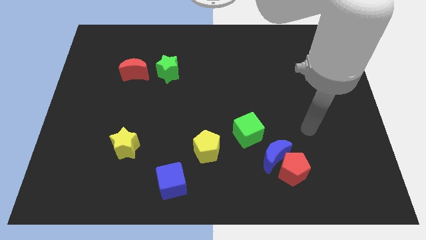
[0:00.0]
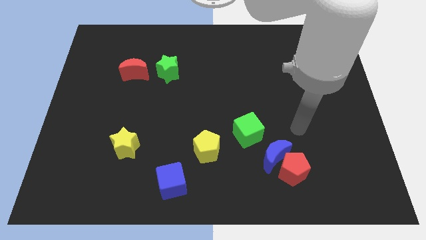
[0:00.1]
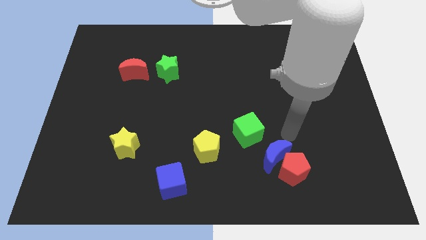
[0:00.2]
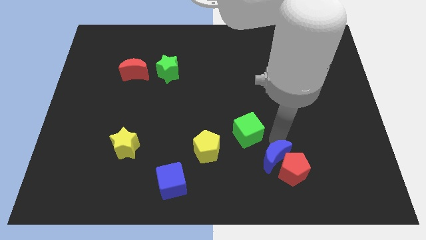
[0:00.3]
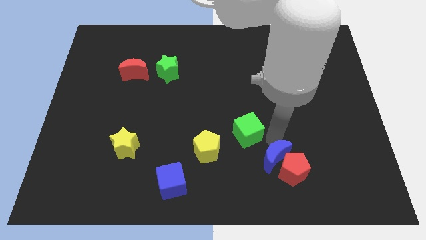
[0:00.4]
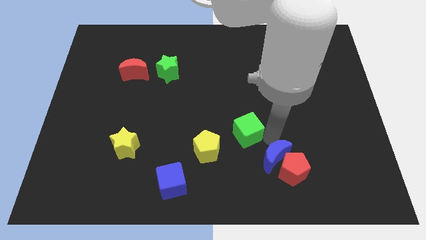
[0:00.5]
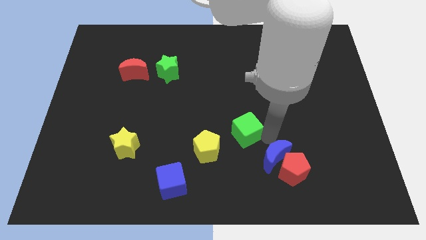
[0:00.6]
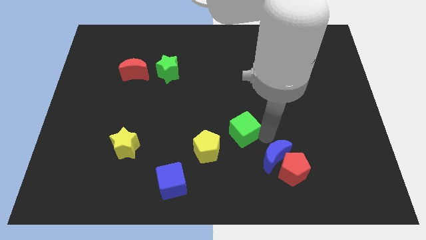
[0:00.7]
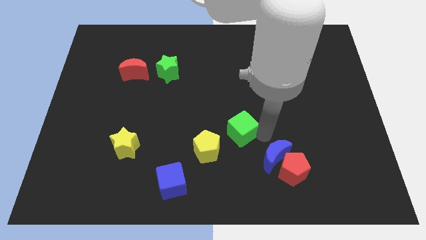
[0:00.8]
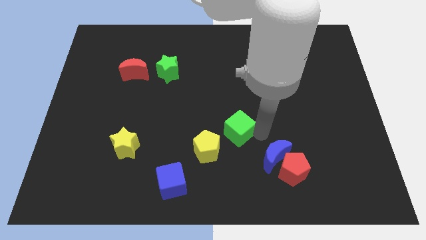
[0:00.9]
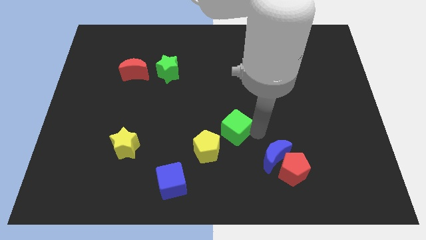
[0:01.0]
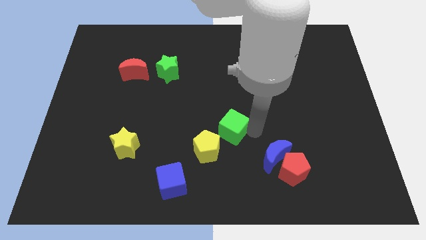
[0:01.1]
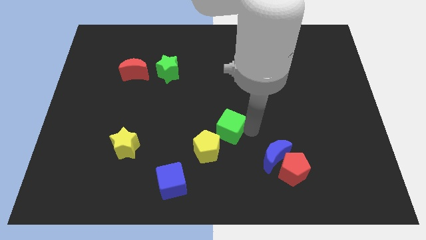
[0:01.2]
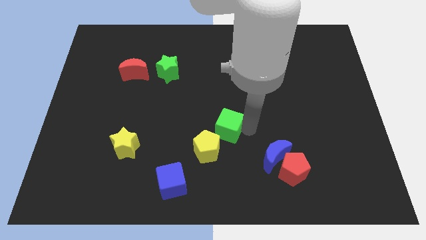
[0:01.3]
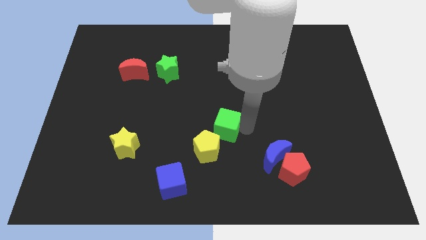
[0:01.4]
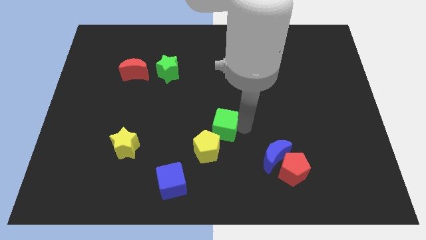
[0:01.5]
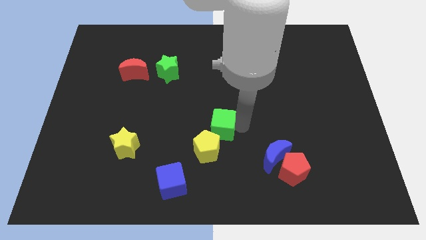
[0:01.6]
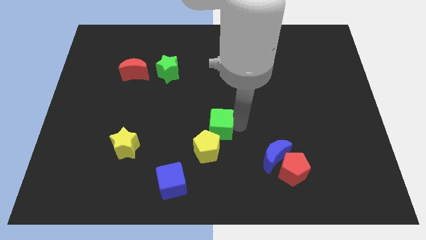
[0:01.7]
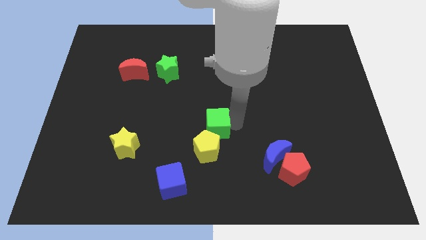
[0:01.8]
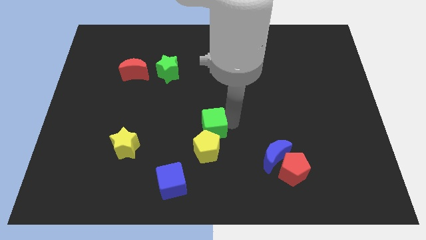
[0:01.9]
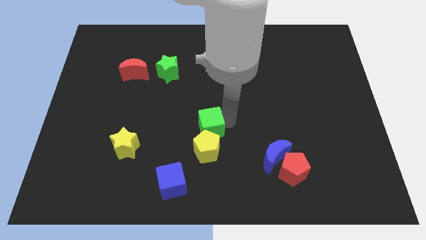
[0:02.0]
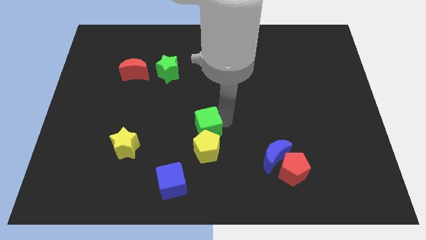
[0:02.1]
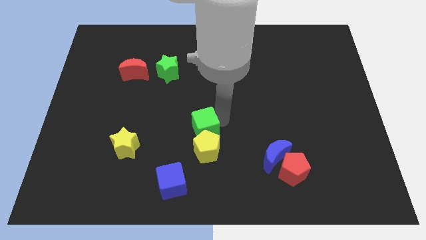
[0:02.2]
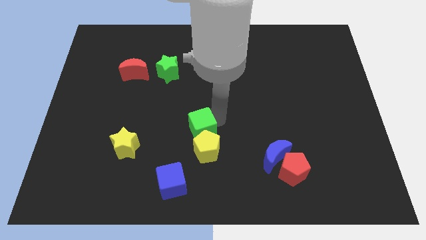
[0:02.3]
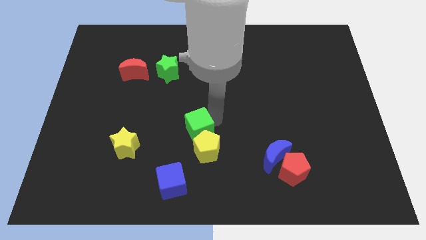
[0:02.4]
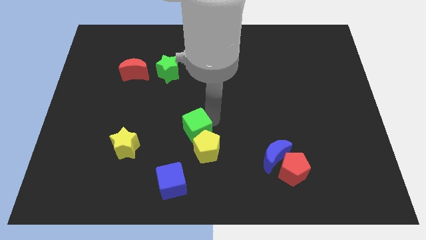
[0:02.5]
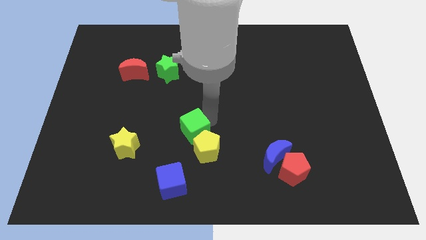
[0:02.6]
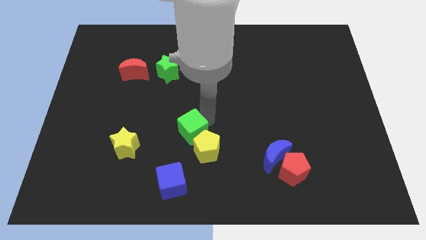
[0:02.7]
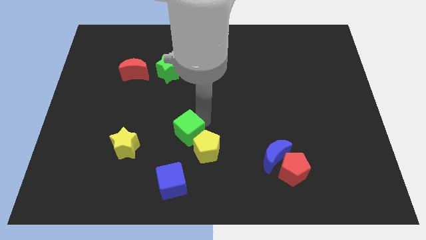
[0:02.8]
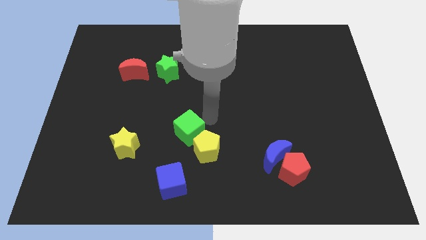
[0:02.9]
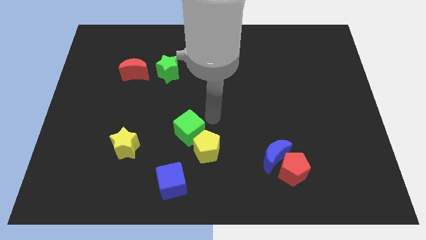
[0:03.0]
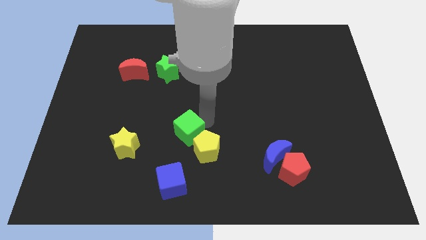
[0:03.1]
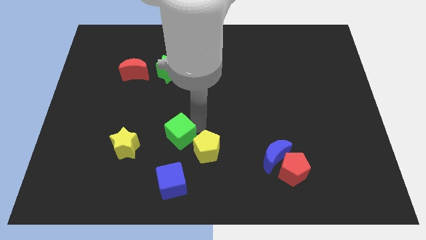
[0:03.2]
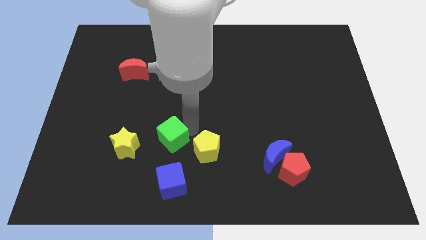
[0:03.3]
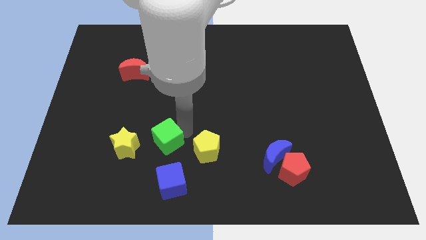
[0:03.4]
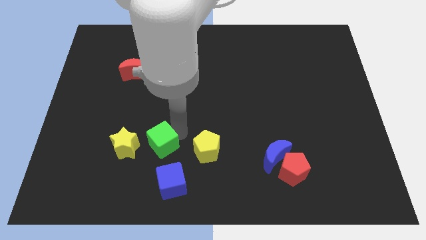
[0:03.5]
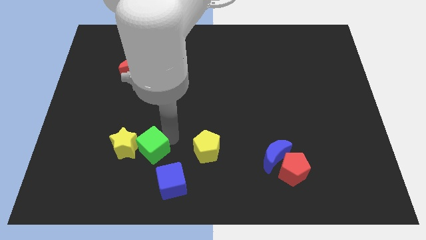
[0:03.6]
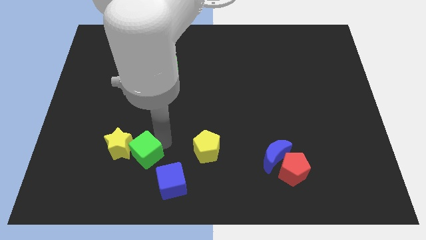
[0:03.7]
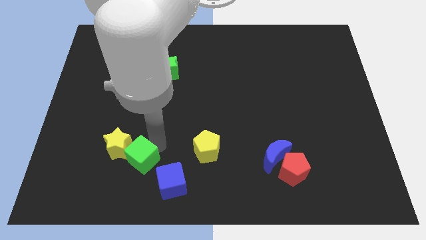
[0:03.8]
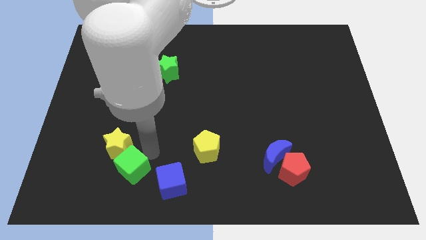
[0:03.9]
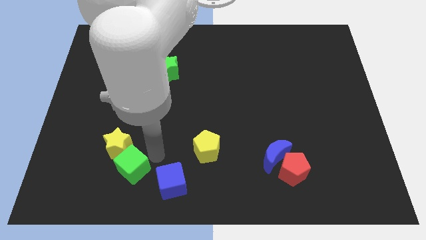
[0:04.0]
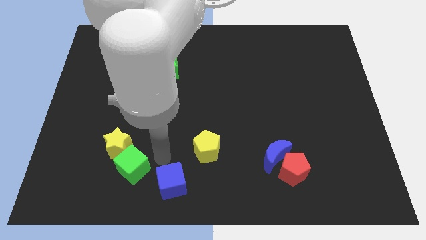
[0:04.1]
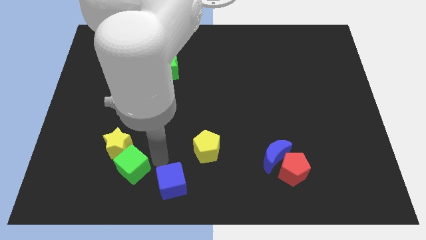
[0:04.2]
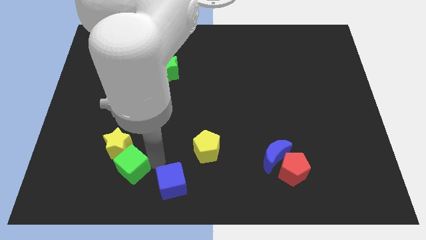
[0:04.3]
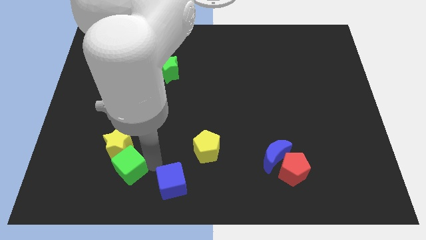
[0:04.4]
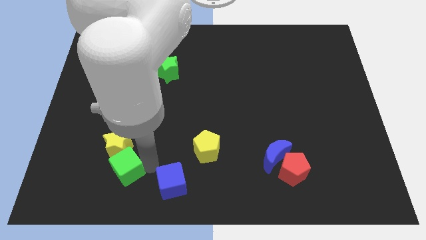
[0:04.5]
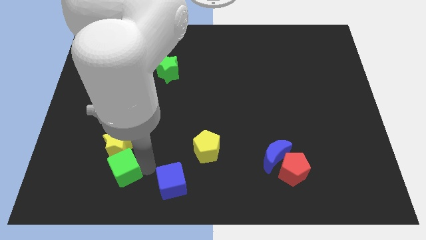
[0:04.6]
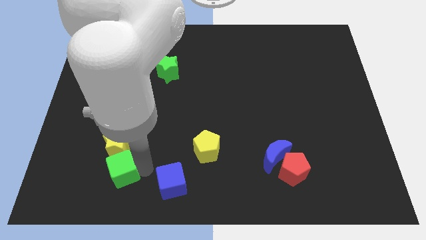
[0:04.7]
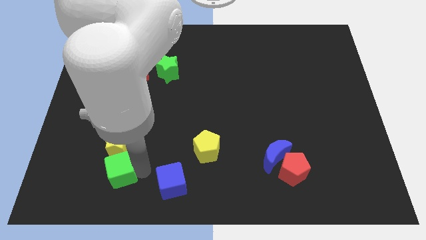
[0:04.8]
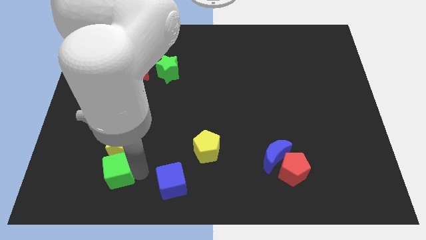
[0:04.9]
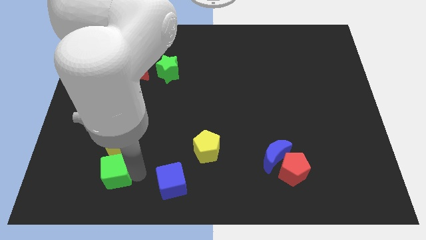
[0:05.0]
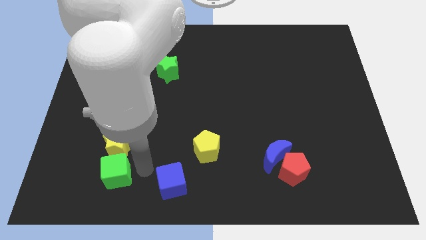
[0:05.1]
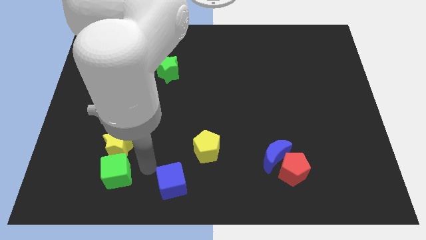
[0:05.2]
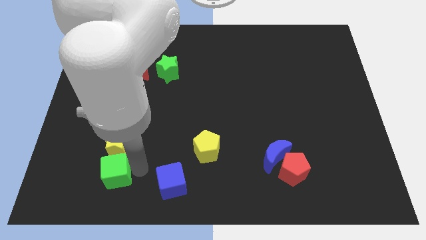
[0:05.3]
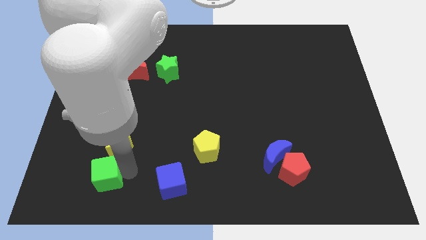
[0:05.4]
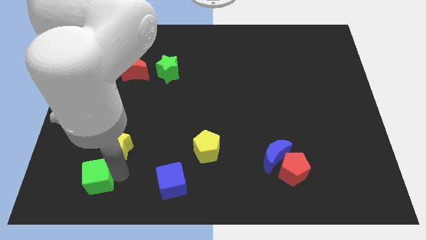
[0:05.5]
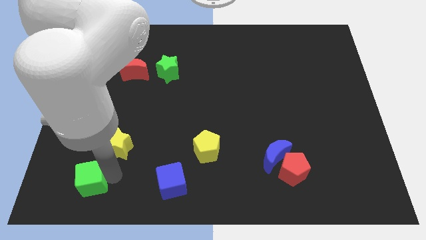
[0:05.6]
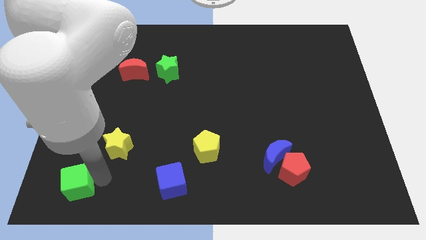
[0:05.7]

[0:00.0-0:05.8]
move the green cube to the bottom left of the board

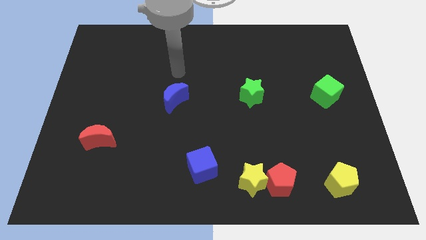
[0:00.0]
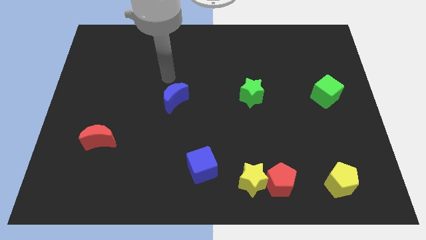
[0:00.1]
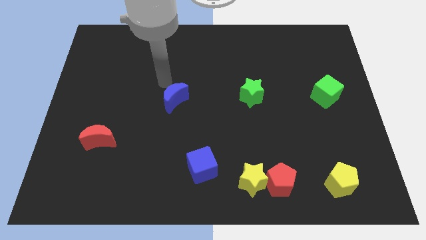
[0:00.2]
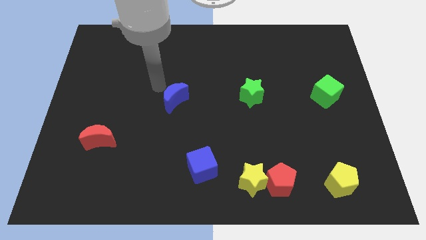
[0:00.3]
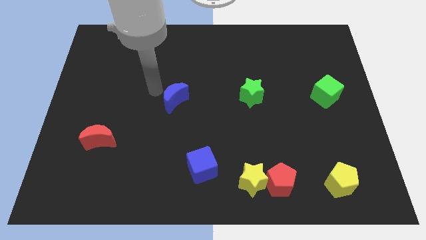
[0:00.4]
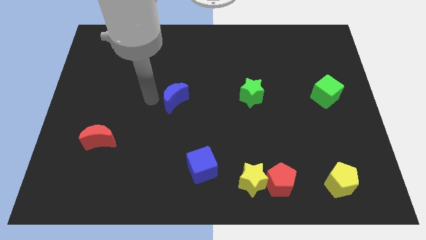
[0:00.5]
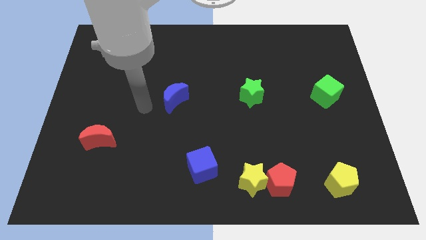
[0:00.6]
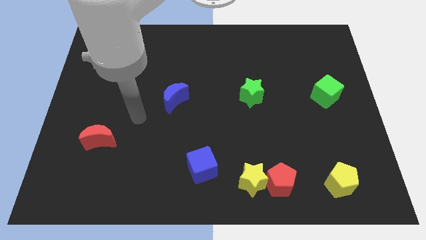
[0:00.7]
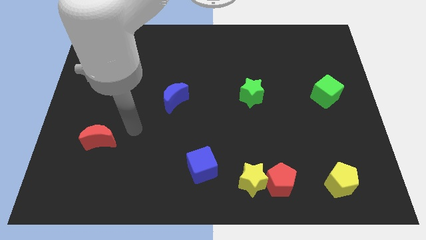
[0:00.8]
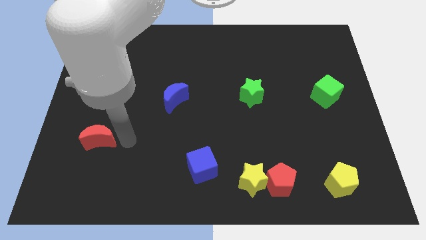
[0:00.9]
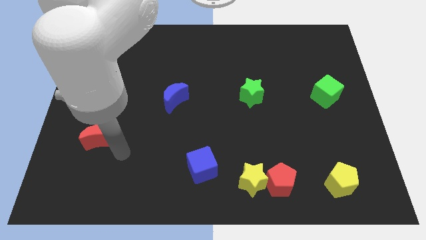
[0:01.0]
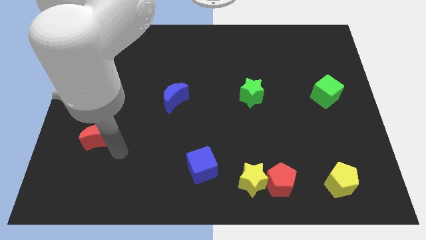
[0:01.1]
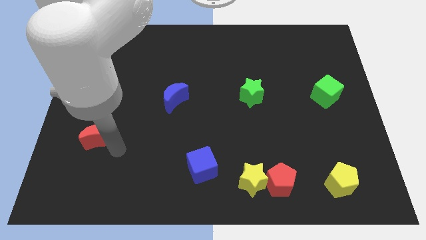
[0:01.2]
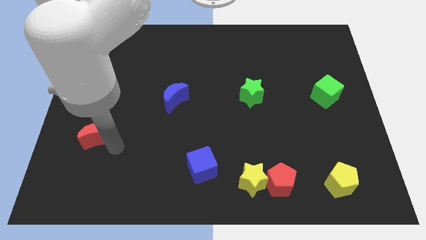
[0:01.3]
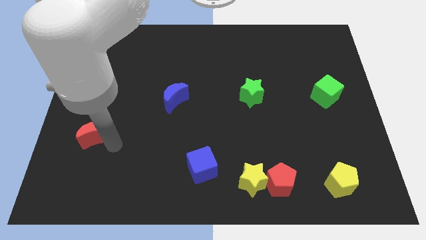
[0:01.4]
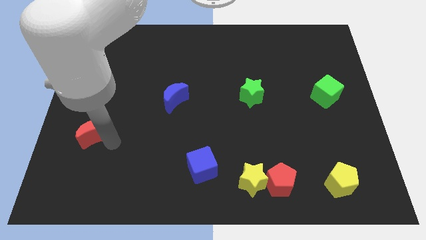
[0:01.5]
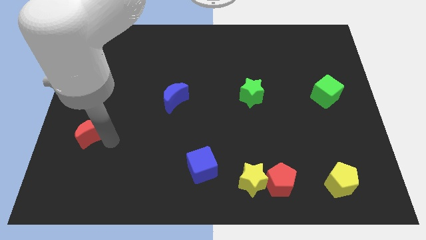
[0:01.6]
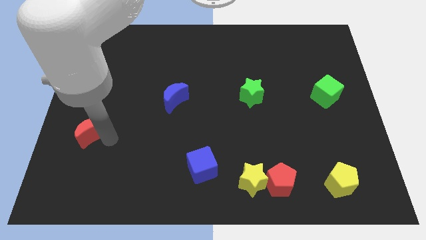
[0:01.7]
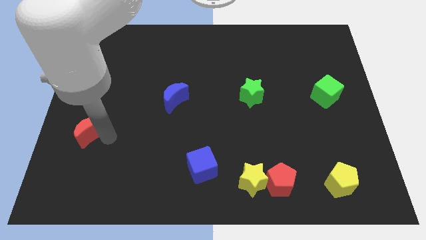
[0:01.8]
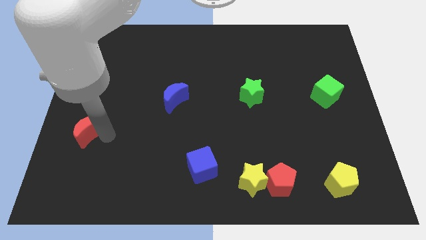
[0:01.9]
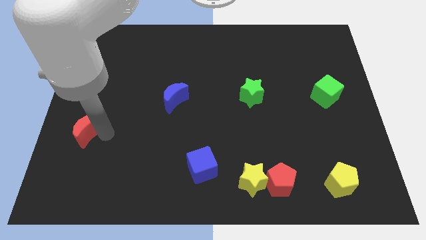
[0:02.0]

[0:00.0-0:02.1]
slide the red moon to the left side of the board
